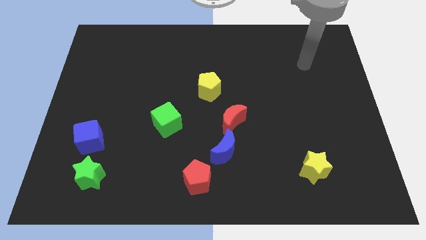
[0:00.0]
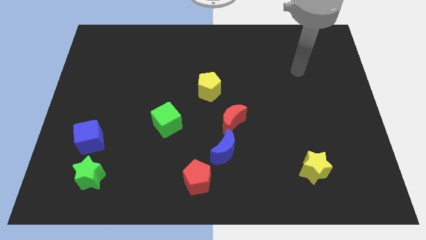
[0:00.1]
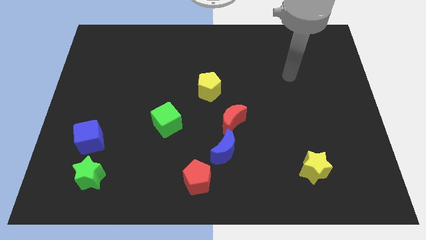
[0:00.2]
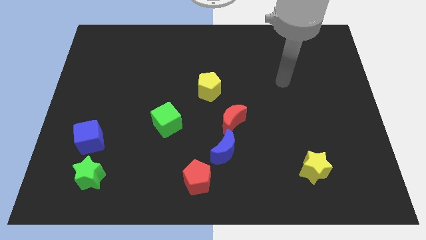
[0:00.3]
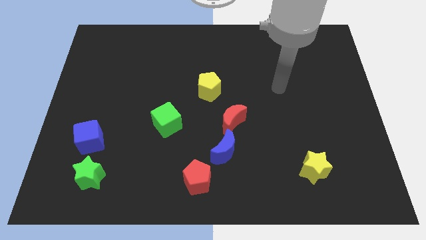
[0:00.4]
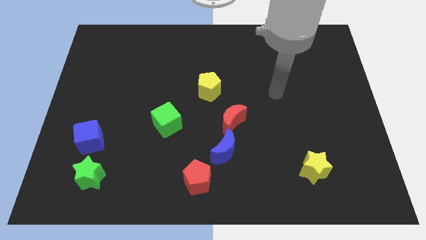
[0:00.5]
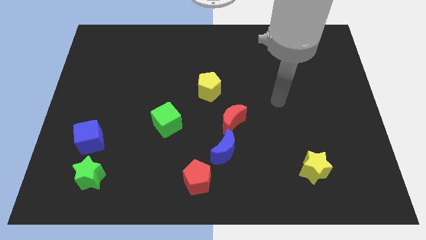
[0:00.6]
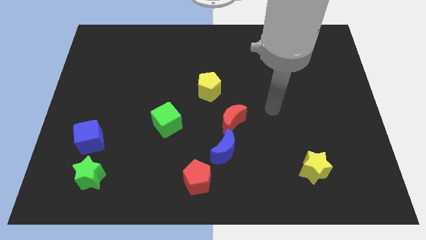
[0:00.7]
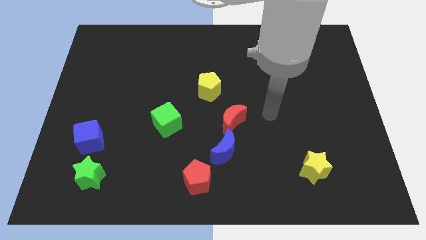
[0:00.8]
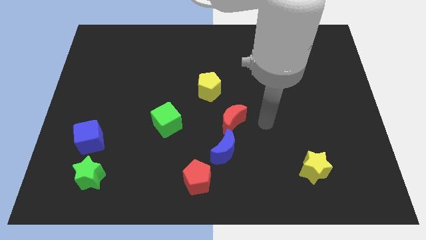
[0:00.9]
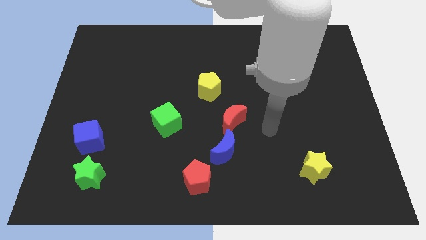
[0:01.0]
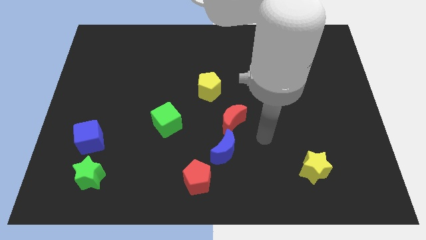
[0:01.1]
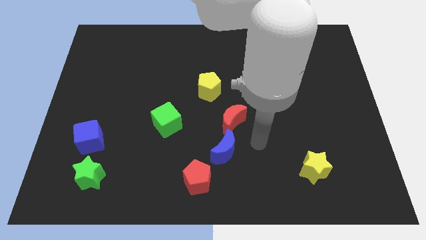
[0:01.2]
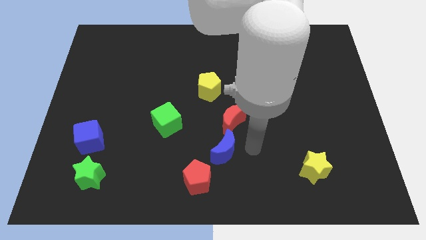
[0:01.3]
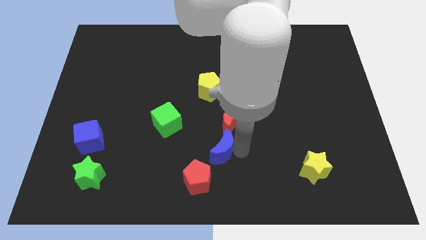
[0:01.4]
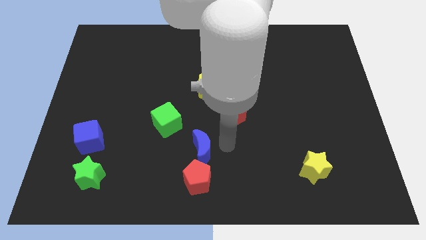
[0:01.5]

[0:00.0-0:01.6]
separate the red moon from the blue moon

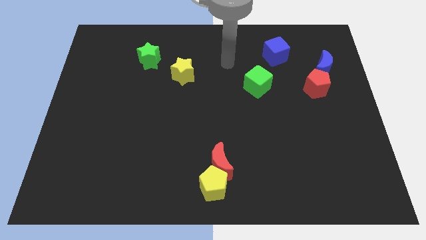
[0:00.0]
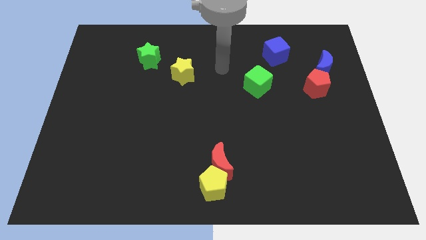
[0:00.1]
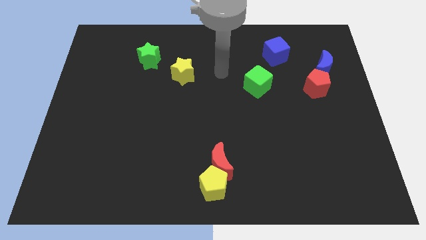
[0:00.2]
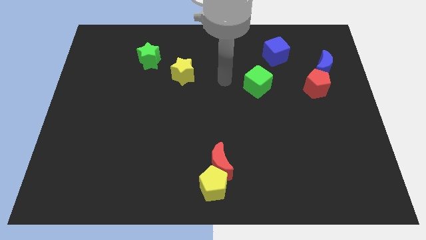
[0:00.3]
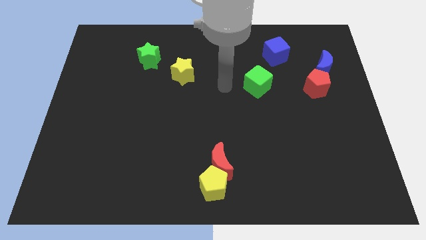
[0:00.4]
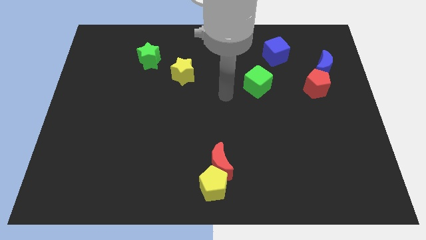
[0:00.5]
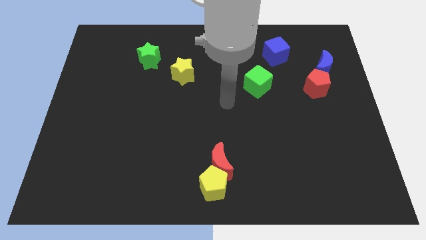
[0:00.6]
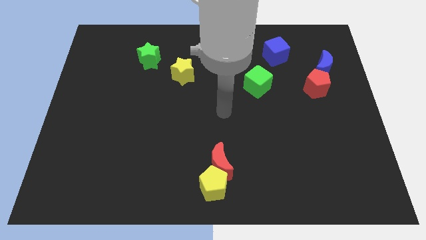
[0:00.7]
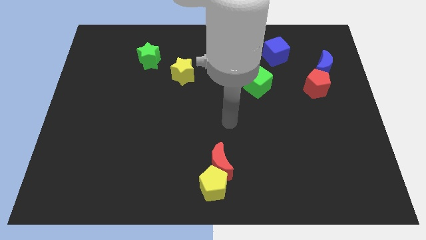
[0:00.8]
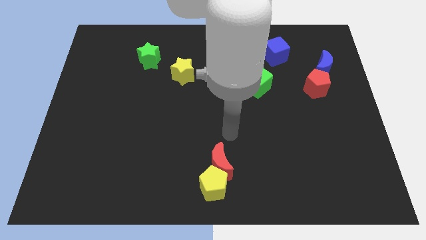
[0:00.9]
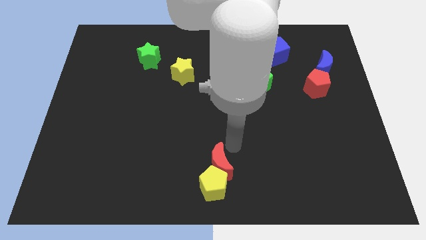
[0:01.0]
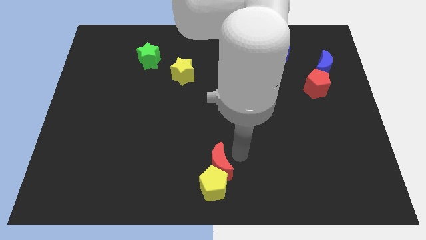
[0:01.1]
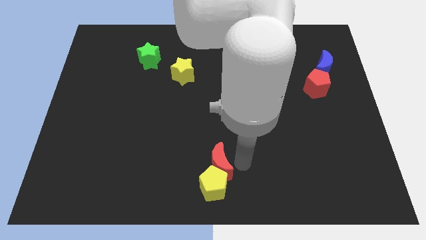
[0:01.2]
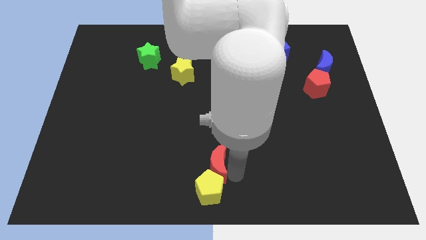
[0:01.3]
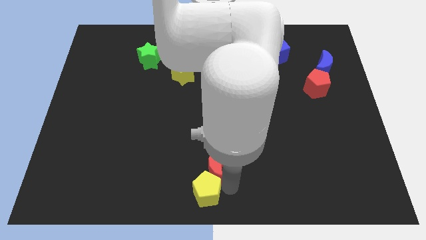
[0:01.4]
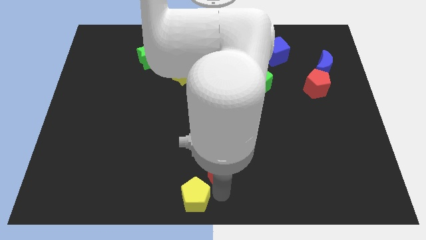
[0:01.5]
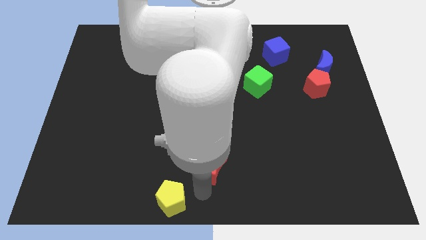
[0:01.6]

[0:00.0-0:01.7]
pull the red moon apart from the yellow pentagon

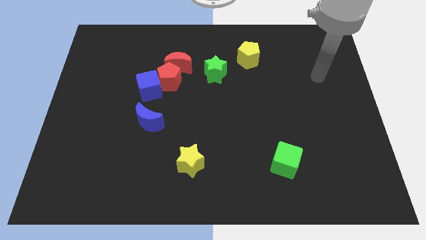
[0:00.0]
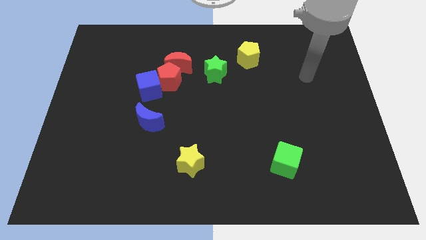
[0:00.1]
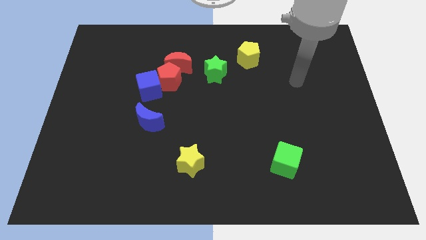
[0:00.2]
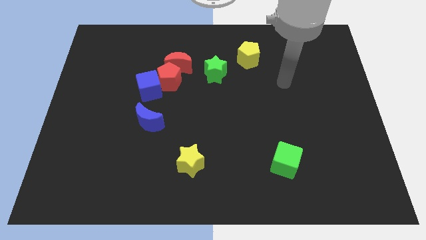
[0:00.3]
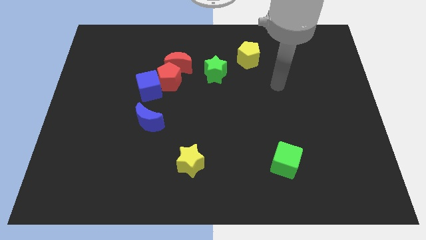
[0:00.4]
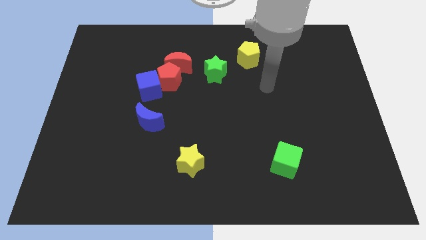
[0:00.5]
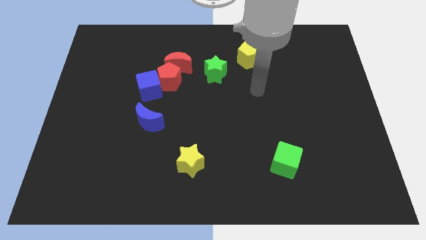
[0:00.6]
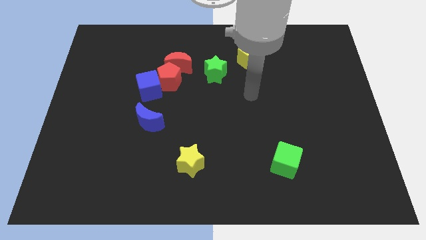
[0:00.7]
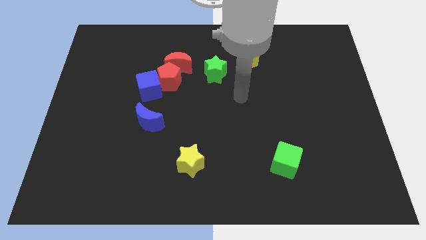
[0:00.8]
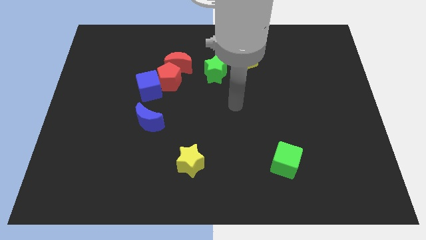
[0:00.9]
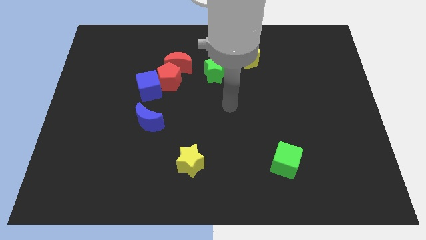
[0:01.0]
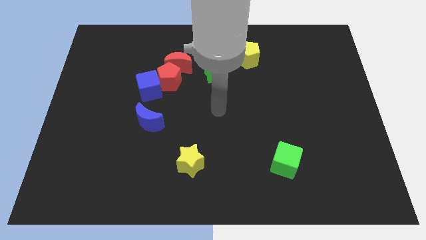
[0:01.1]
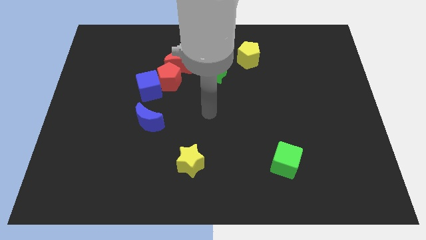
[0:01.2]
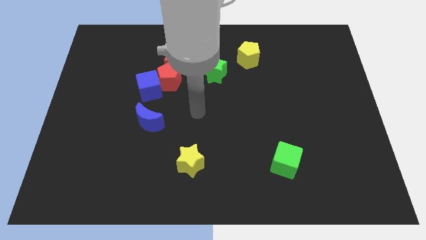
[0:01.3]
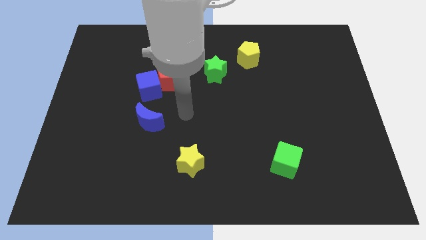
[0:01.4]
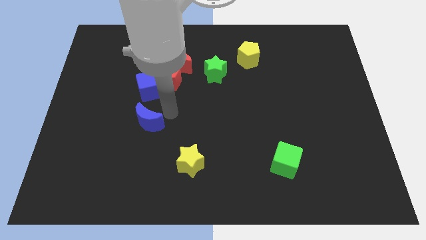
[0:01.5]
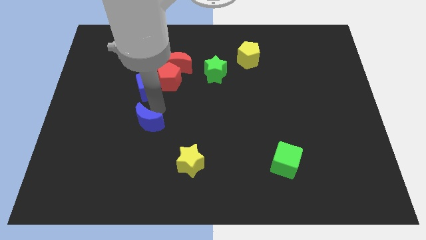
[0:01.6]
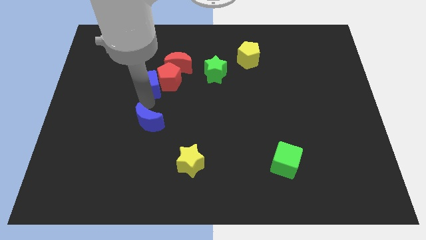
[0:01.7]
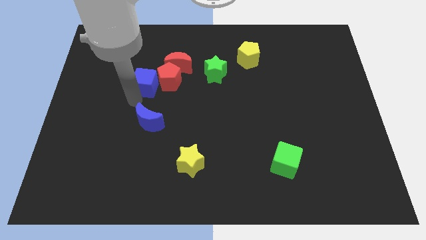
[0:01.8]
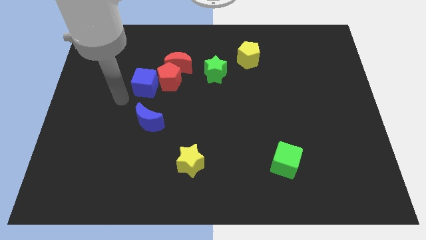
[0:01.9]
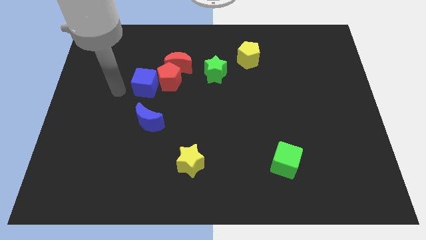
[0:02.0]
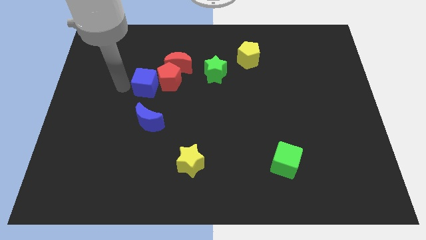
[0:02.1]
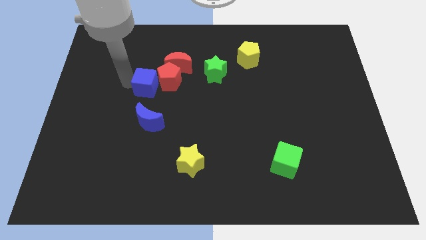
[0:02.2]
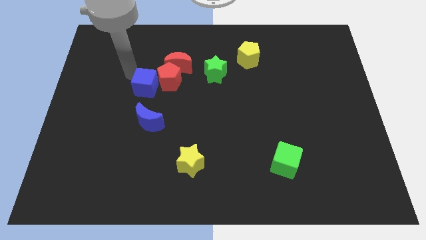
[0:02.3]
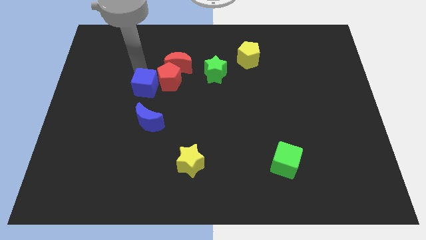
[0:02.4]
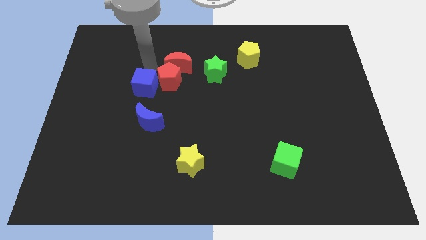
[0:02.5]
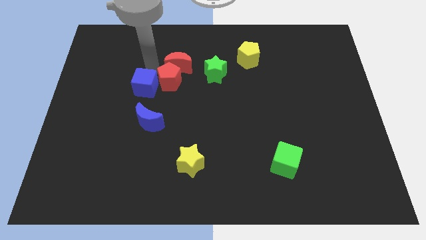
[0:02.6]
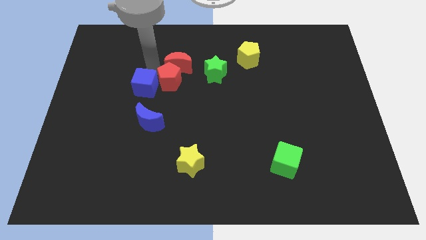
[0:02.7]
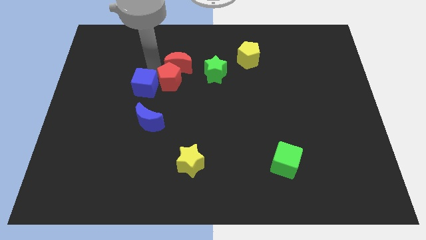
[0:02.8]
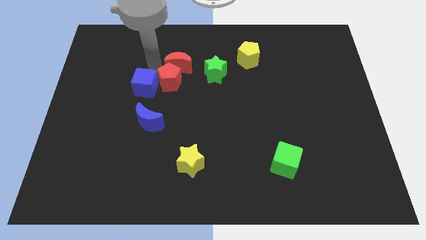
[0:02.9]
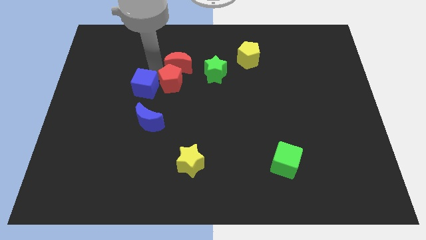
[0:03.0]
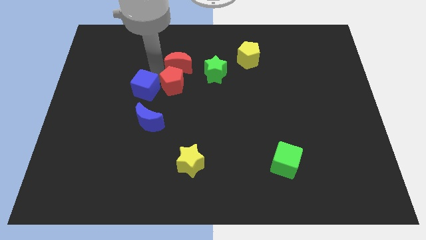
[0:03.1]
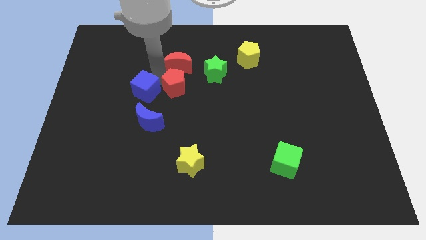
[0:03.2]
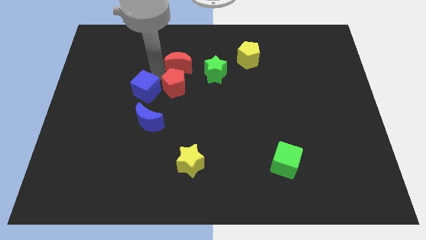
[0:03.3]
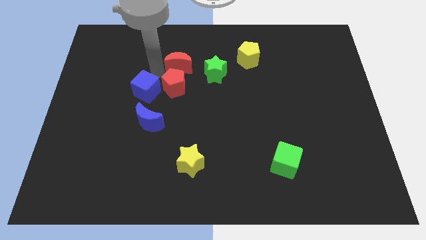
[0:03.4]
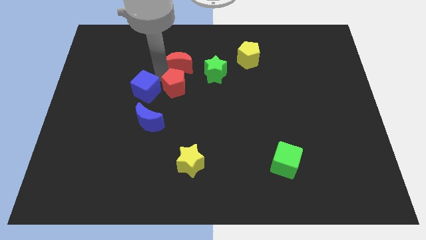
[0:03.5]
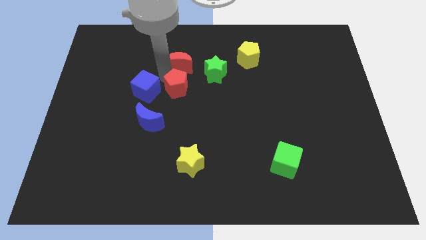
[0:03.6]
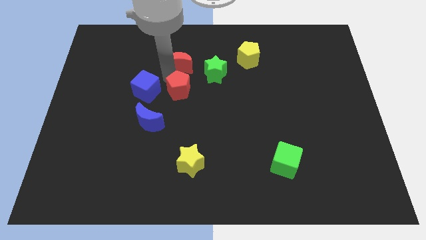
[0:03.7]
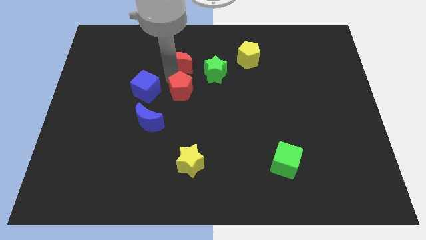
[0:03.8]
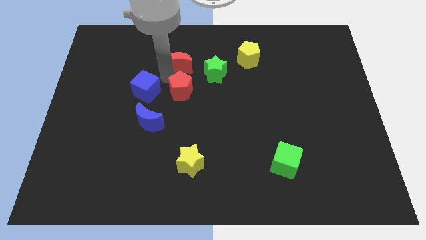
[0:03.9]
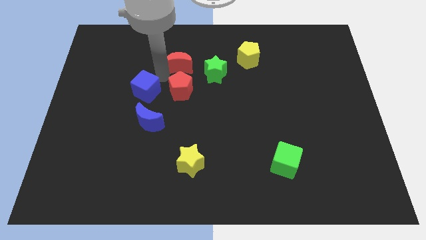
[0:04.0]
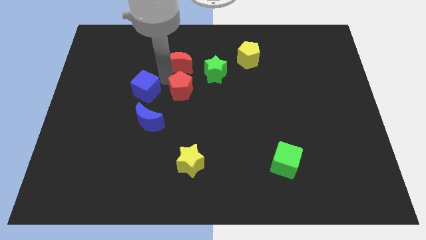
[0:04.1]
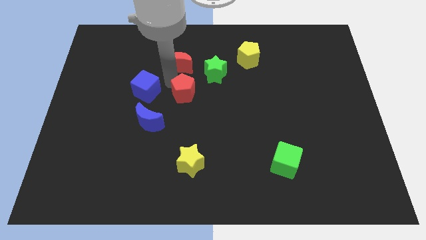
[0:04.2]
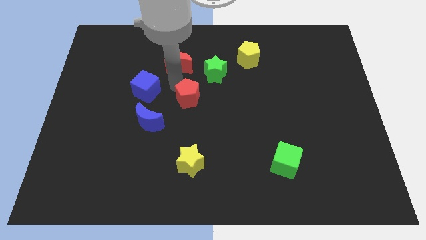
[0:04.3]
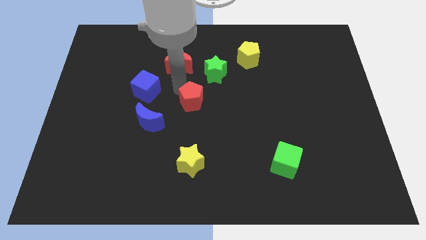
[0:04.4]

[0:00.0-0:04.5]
move the red pentagon away from the red moon and blue cube

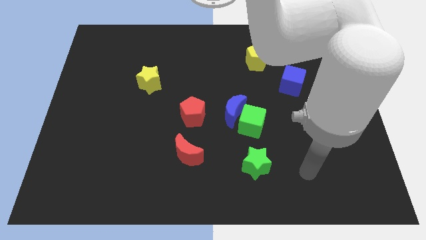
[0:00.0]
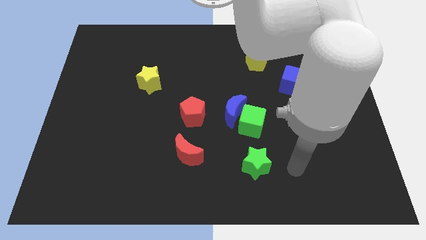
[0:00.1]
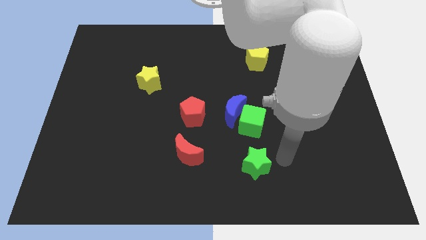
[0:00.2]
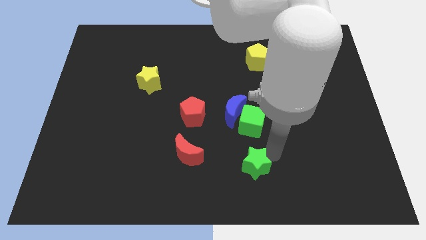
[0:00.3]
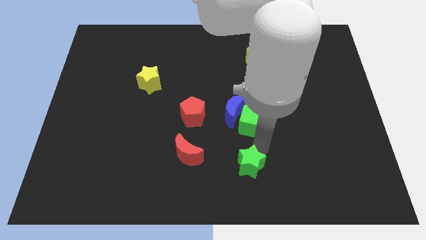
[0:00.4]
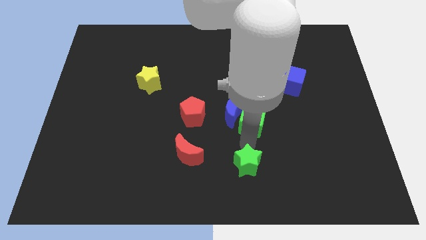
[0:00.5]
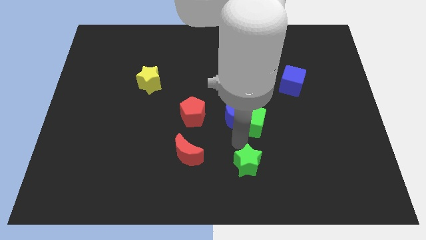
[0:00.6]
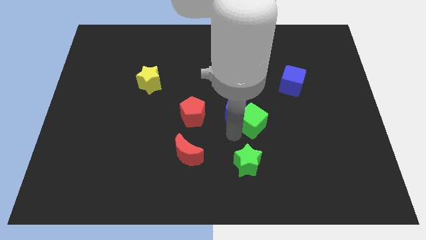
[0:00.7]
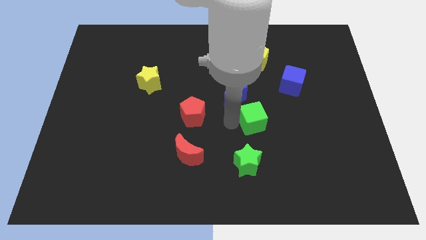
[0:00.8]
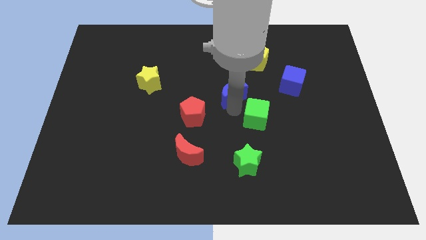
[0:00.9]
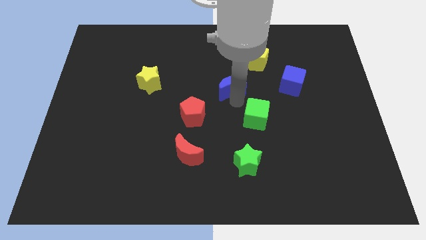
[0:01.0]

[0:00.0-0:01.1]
separate the green cube from the blue moon

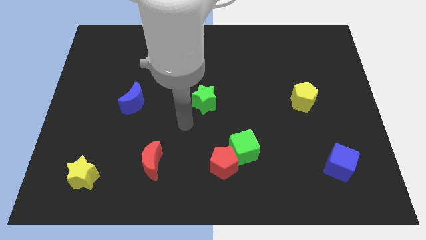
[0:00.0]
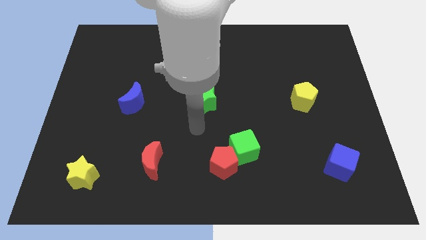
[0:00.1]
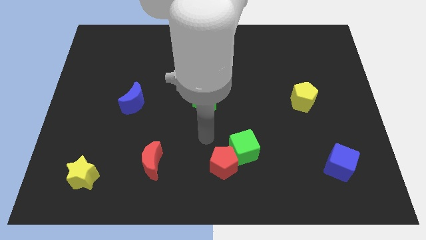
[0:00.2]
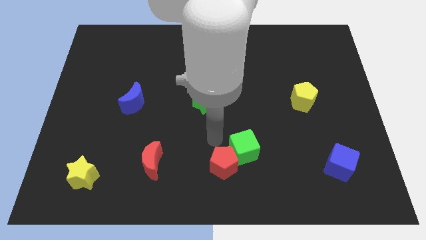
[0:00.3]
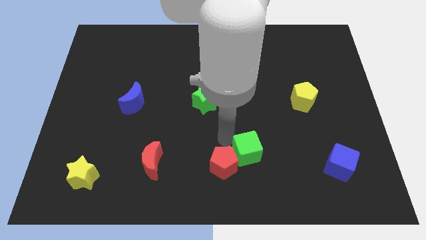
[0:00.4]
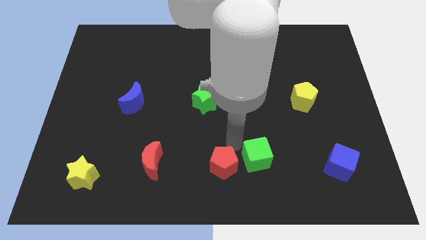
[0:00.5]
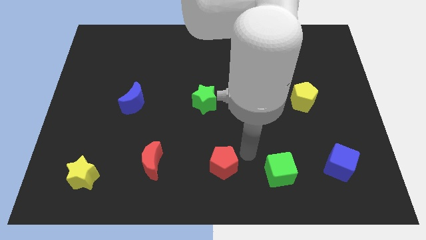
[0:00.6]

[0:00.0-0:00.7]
pull the red pentagon apart from the green cube
